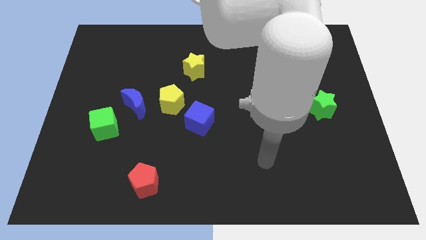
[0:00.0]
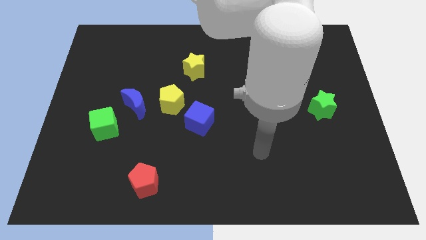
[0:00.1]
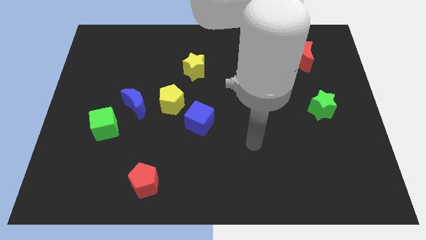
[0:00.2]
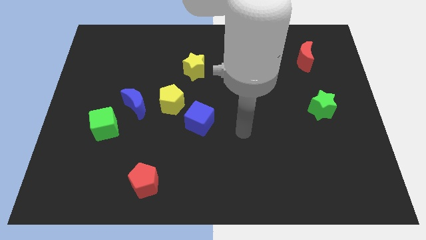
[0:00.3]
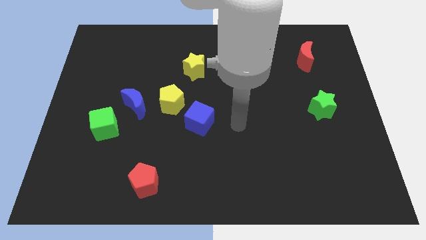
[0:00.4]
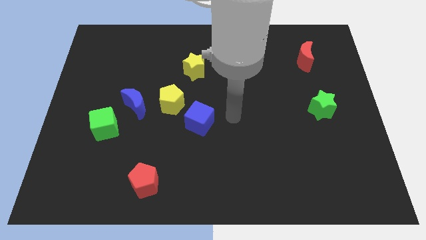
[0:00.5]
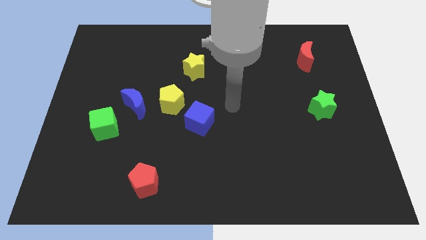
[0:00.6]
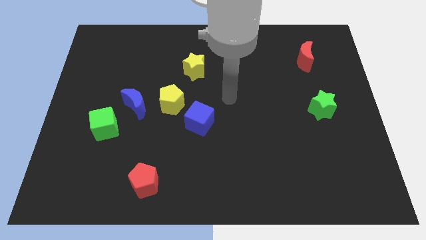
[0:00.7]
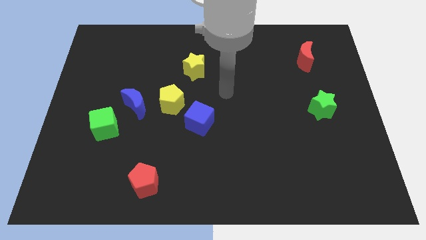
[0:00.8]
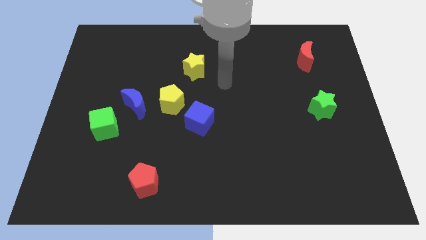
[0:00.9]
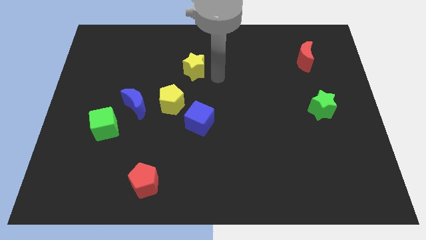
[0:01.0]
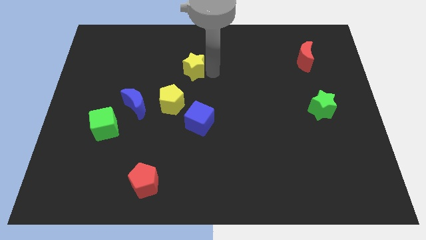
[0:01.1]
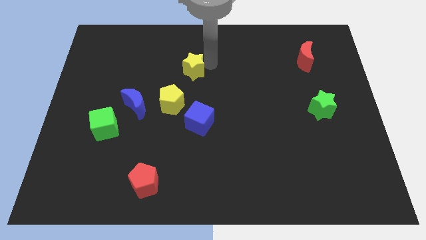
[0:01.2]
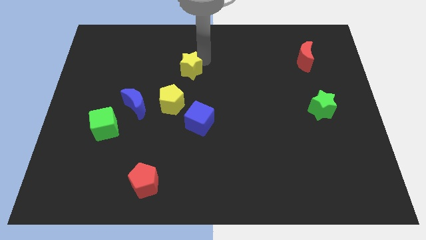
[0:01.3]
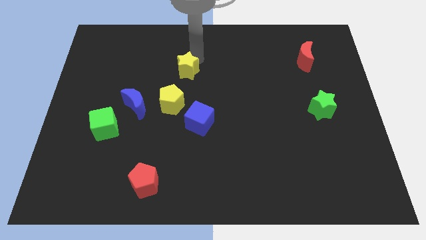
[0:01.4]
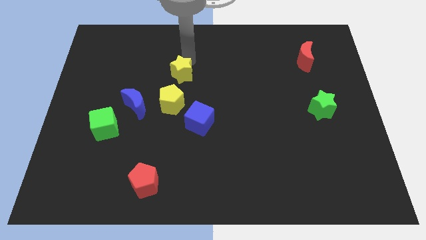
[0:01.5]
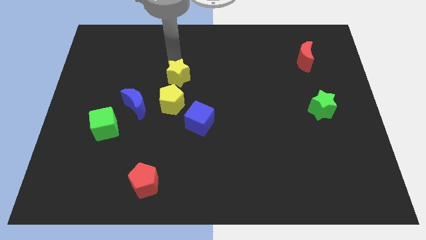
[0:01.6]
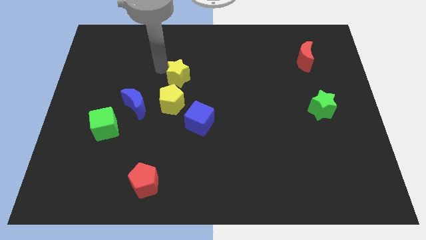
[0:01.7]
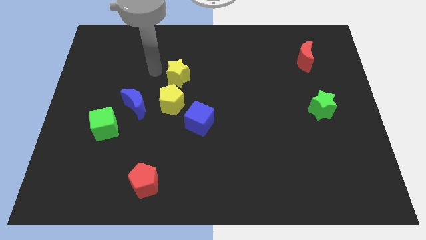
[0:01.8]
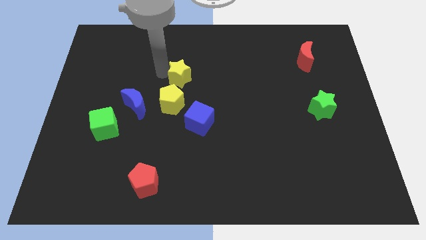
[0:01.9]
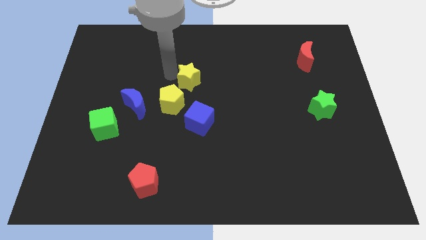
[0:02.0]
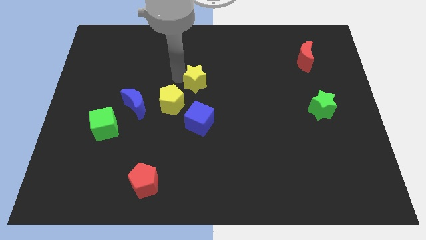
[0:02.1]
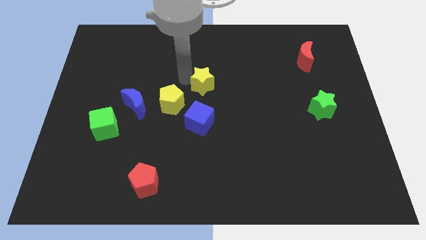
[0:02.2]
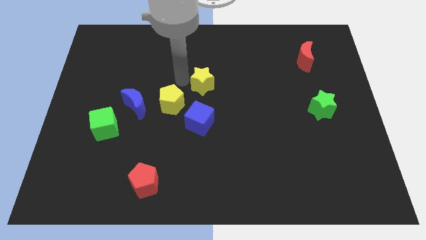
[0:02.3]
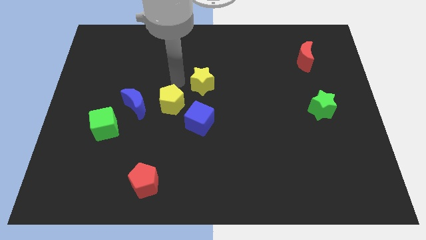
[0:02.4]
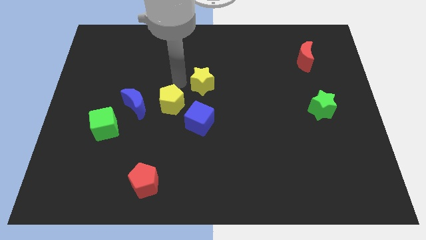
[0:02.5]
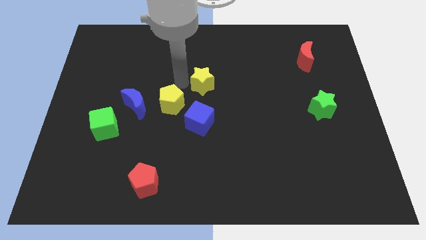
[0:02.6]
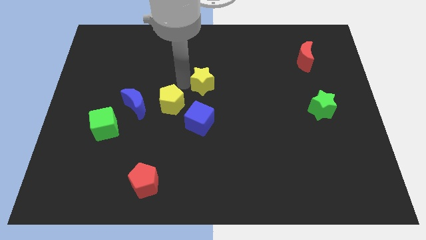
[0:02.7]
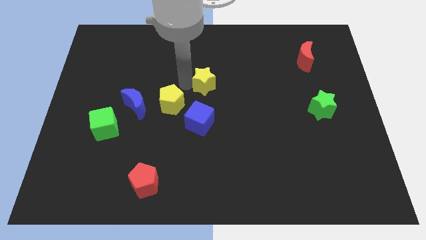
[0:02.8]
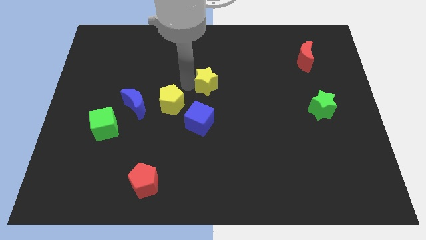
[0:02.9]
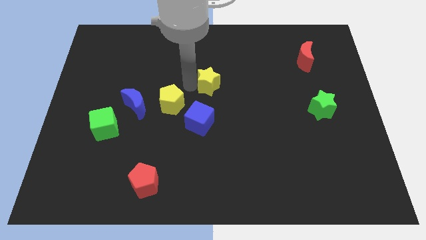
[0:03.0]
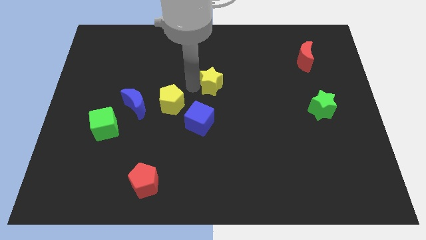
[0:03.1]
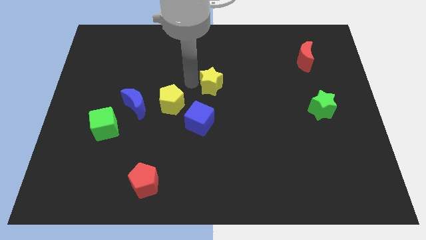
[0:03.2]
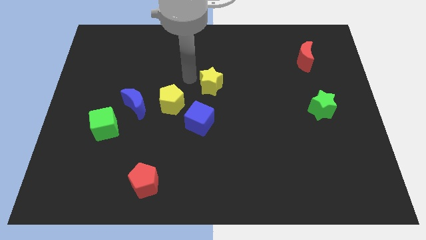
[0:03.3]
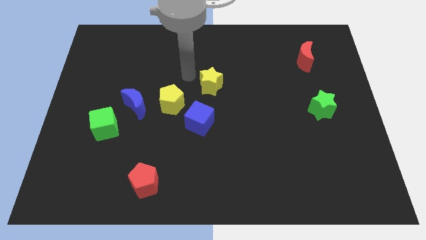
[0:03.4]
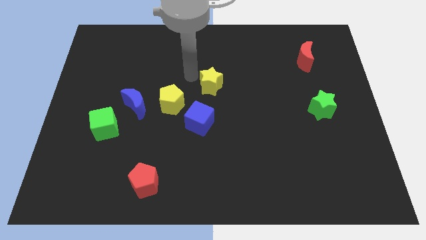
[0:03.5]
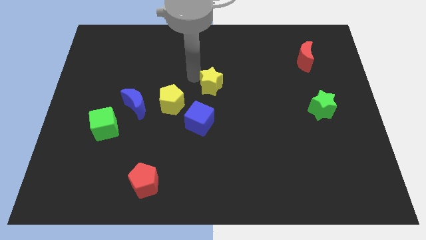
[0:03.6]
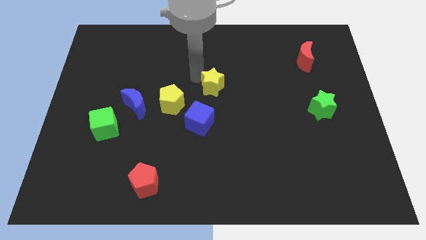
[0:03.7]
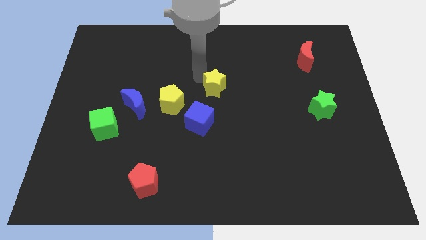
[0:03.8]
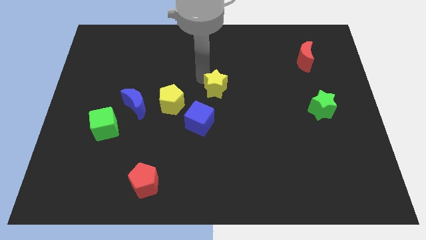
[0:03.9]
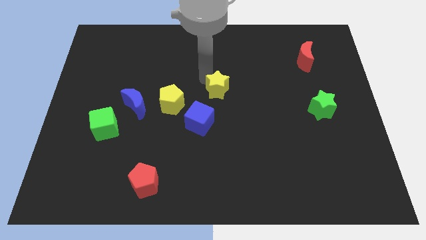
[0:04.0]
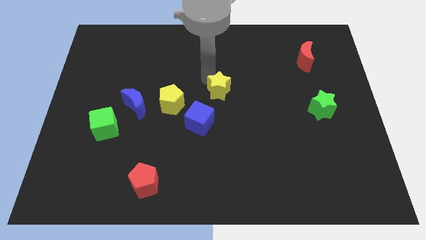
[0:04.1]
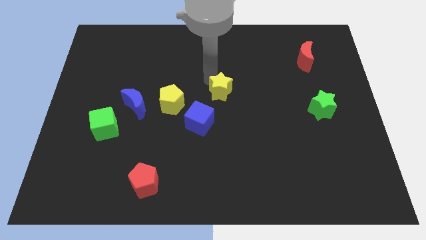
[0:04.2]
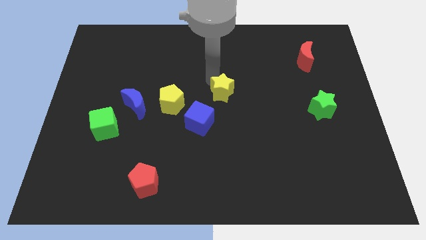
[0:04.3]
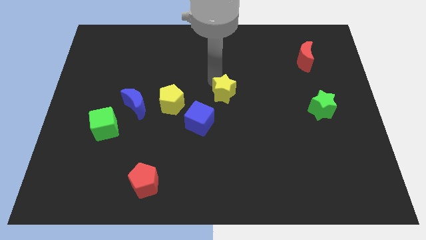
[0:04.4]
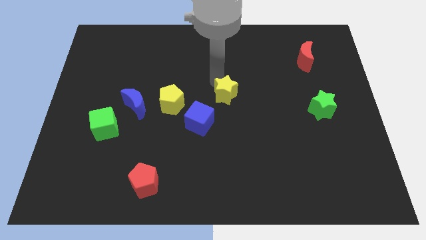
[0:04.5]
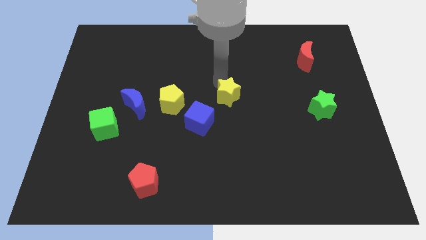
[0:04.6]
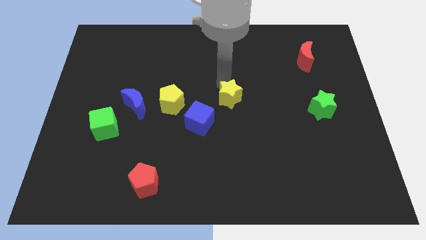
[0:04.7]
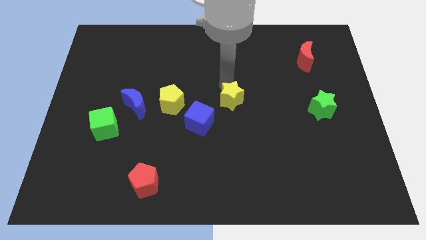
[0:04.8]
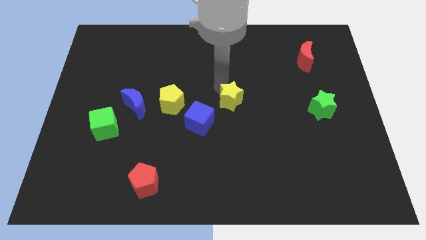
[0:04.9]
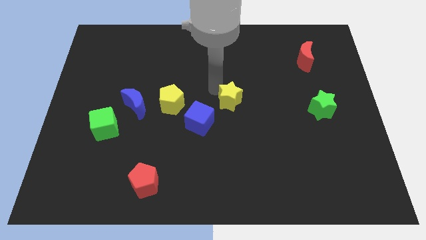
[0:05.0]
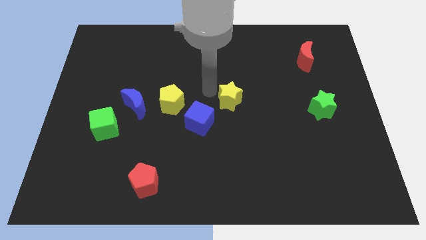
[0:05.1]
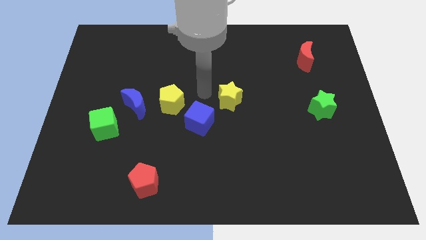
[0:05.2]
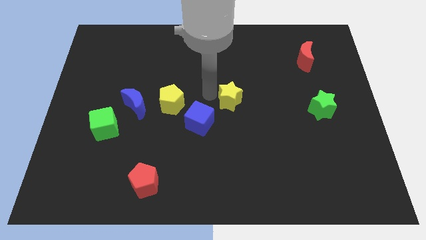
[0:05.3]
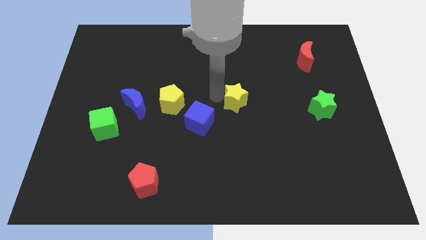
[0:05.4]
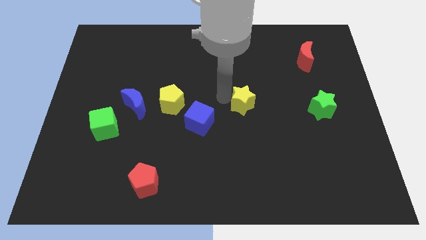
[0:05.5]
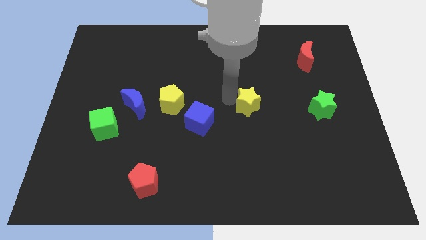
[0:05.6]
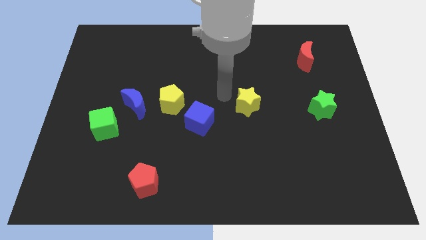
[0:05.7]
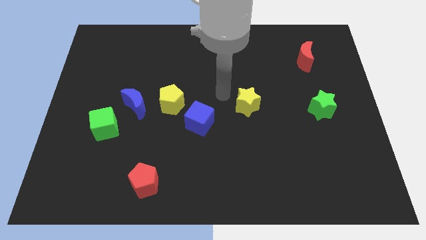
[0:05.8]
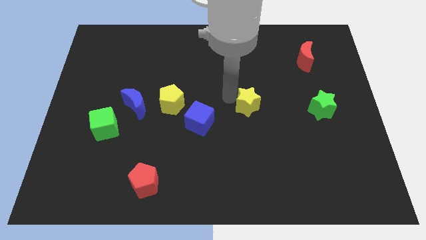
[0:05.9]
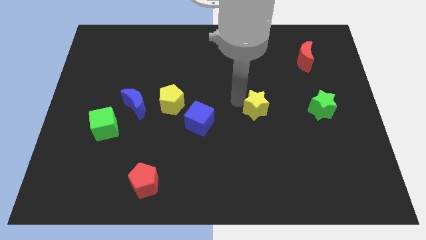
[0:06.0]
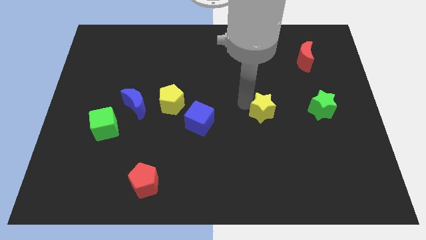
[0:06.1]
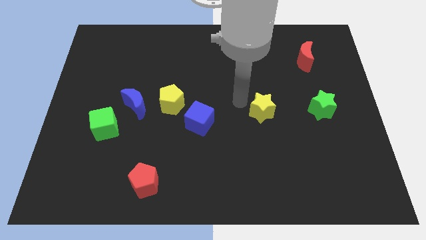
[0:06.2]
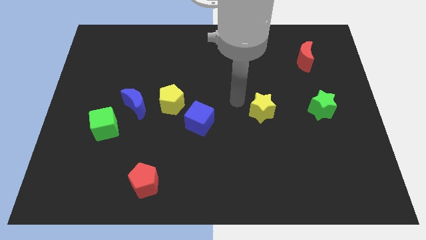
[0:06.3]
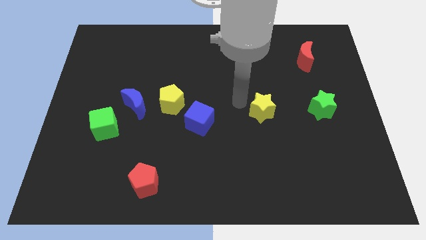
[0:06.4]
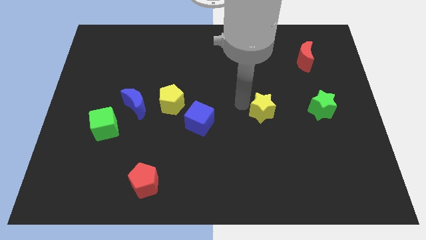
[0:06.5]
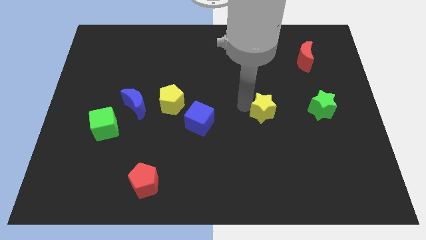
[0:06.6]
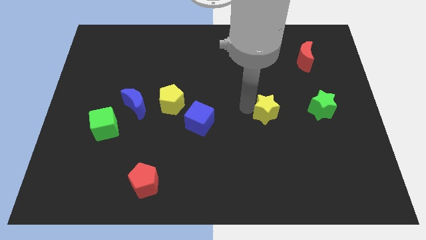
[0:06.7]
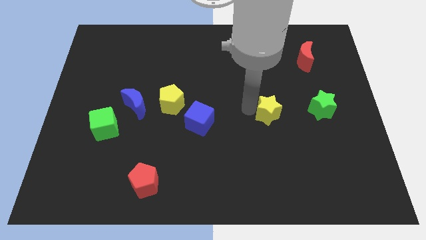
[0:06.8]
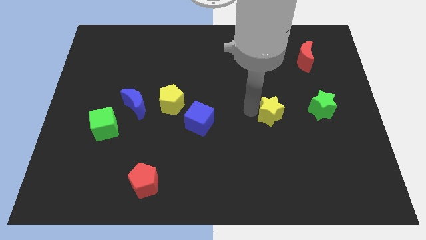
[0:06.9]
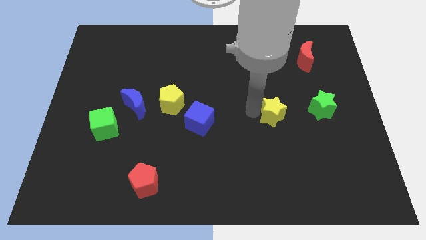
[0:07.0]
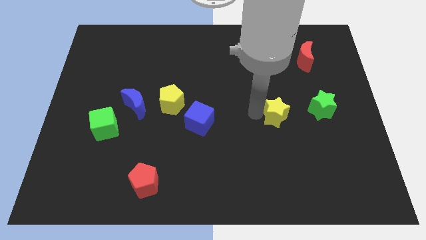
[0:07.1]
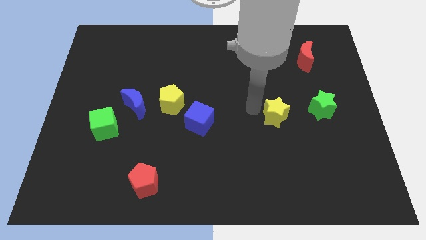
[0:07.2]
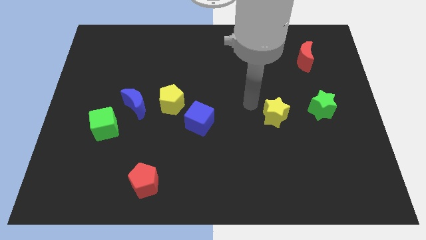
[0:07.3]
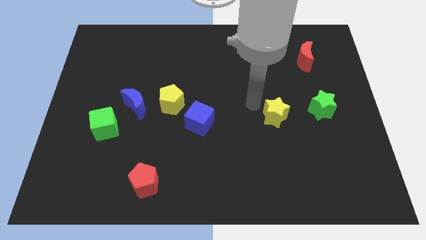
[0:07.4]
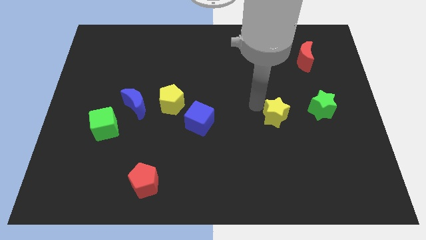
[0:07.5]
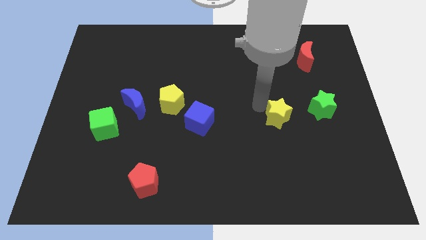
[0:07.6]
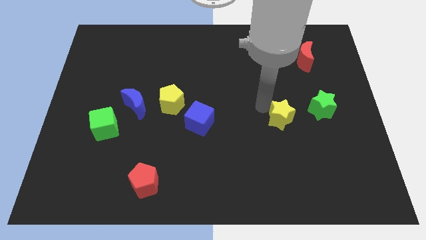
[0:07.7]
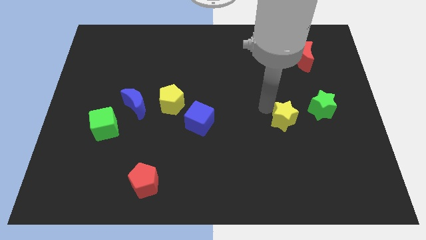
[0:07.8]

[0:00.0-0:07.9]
move the yellow star to the bottom left of the green star
